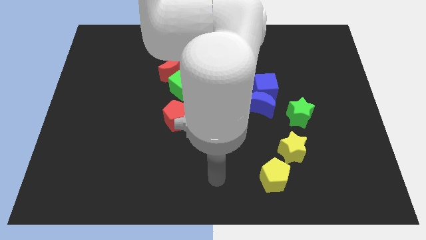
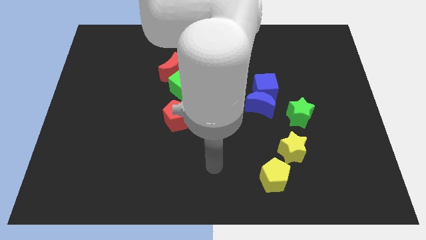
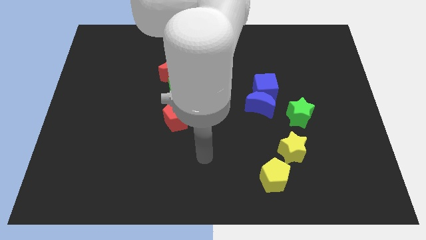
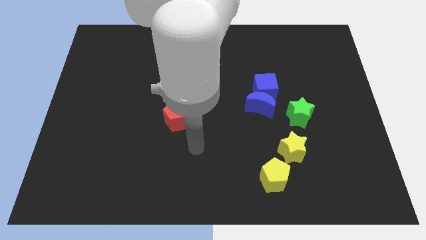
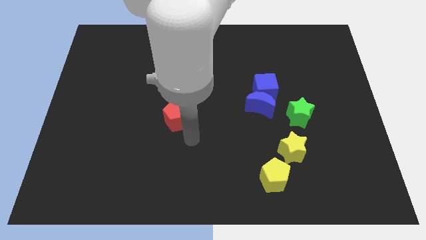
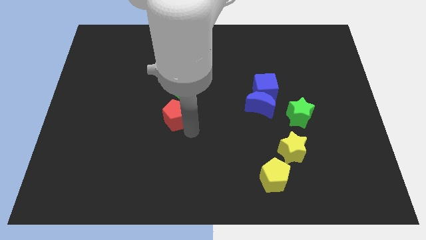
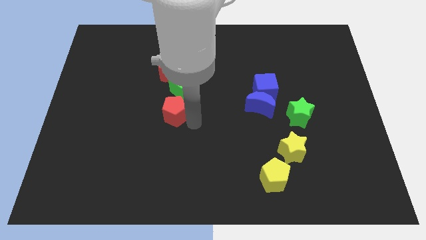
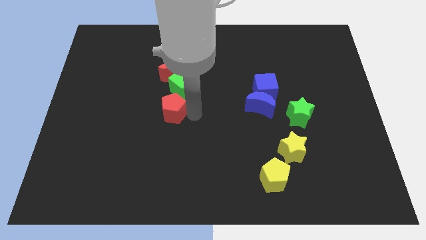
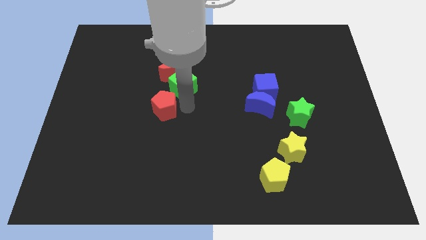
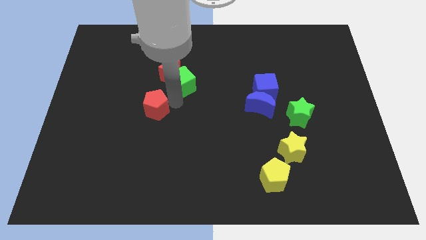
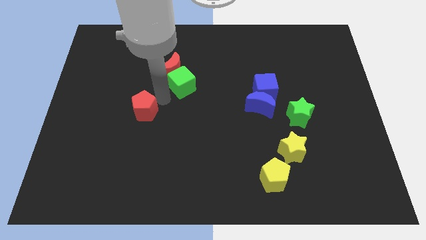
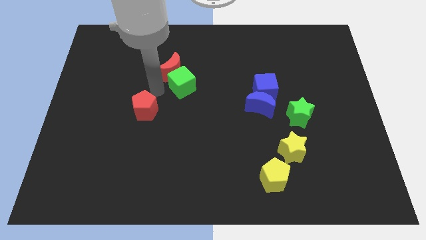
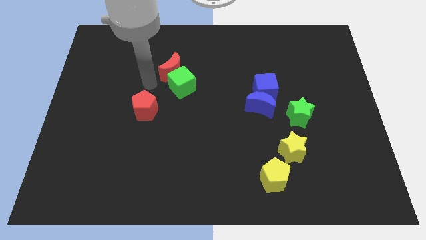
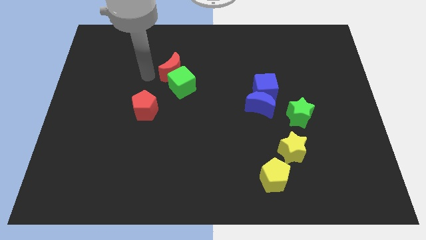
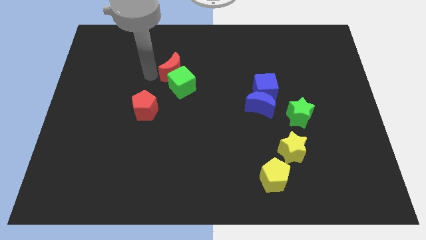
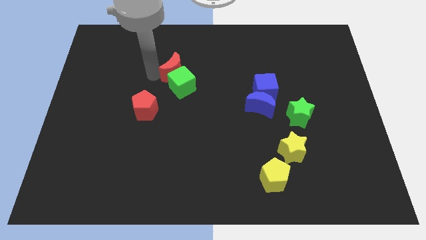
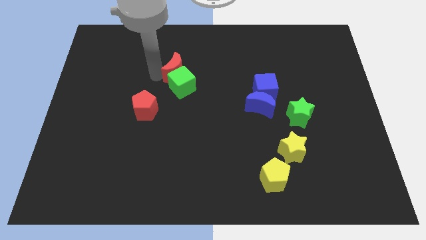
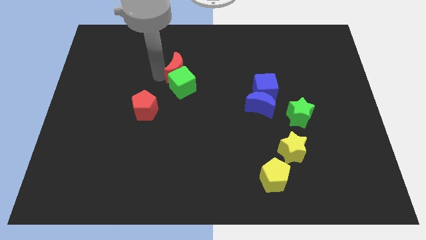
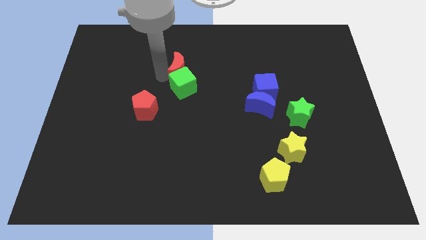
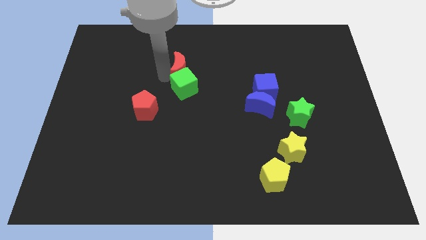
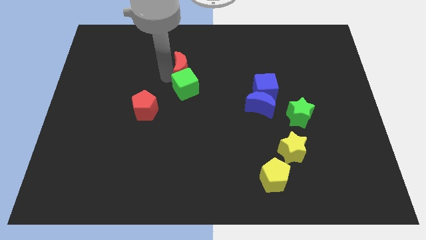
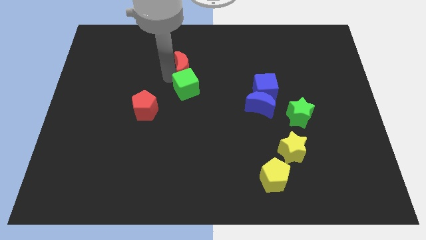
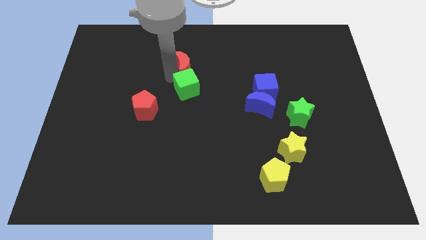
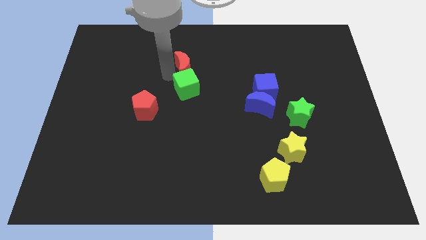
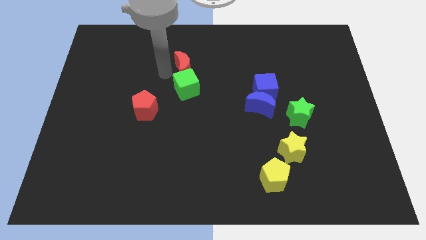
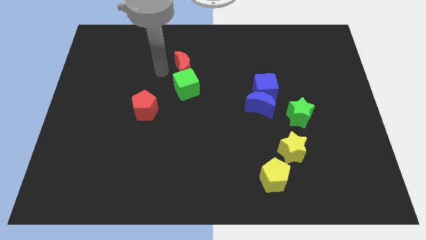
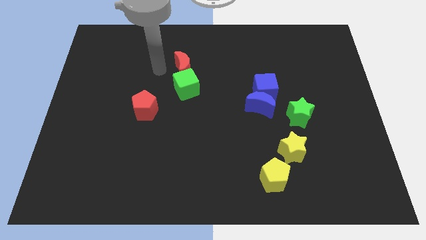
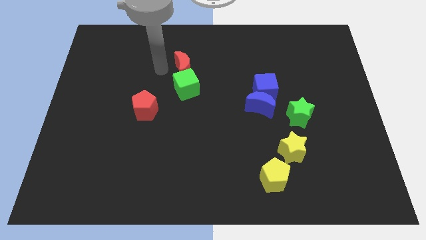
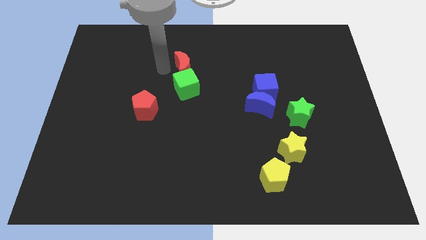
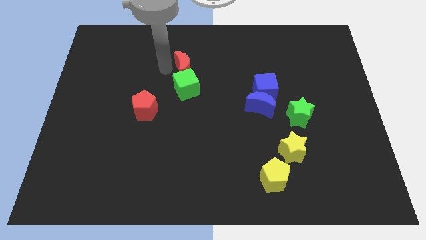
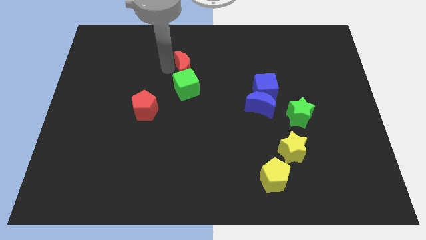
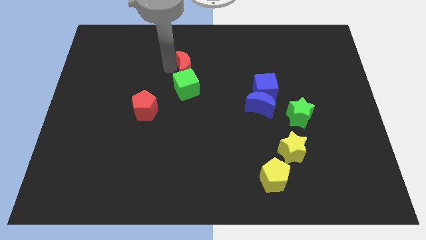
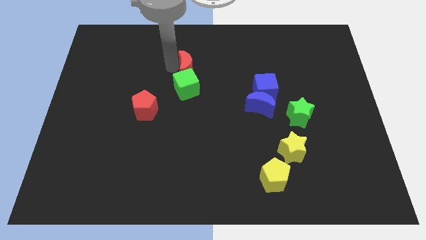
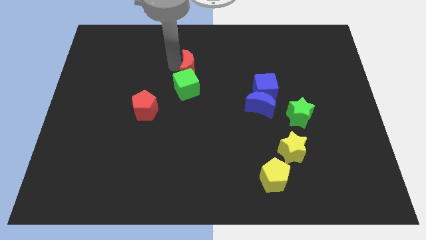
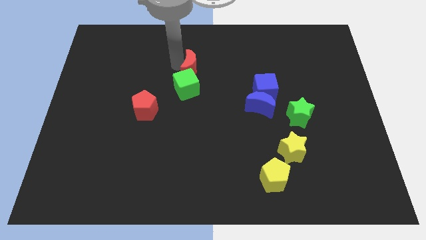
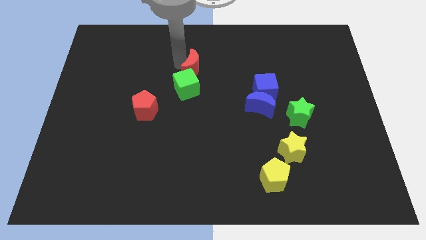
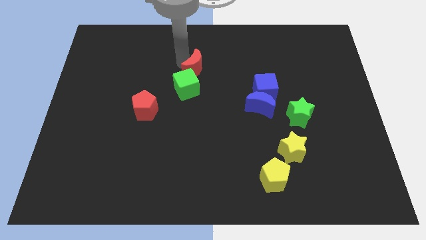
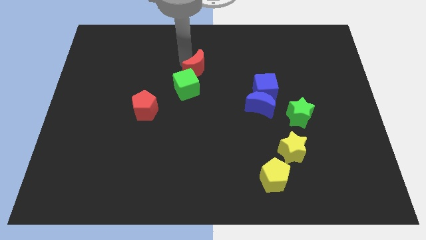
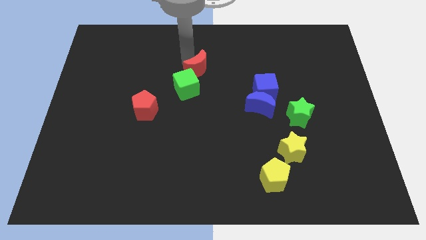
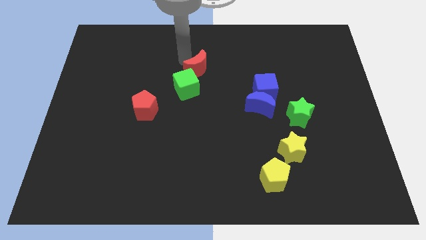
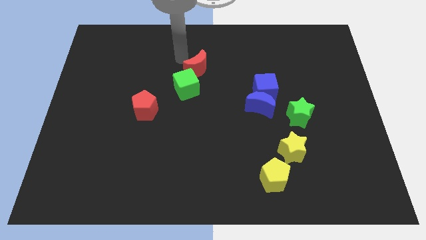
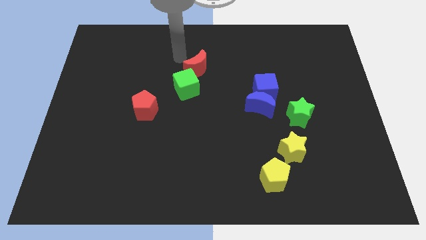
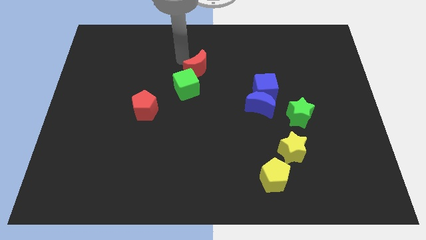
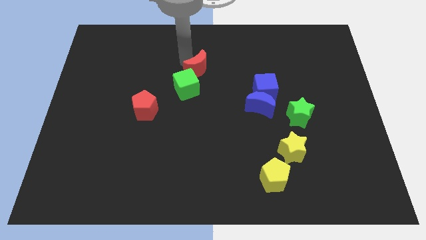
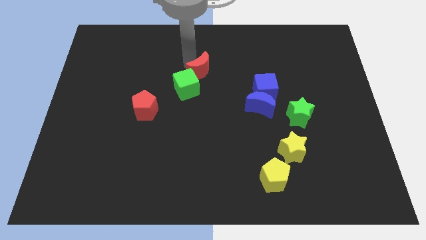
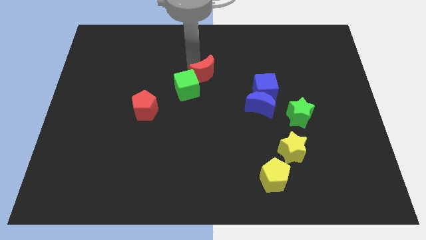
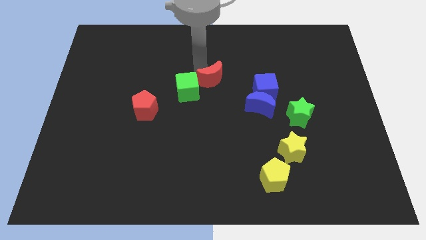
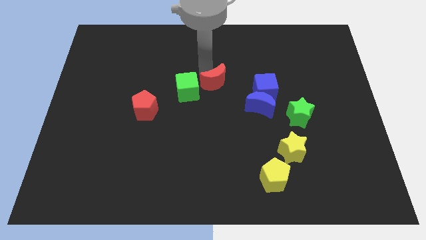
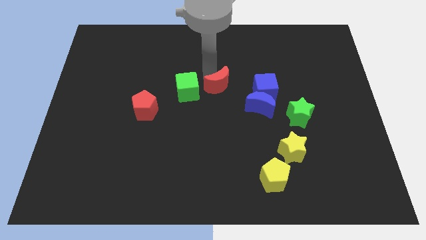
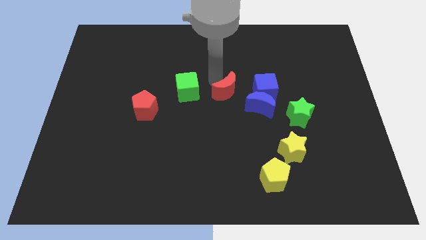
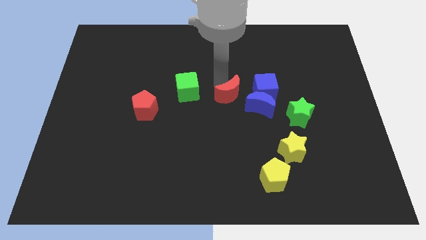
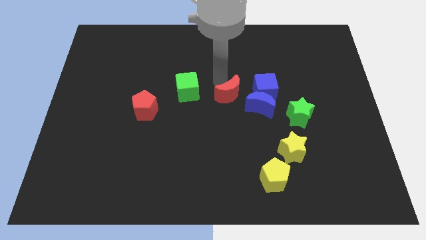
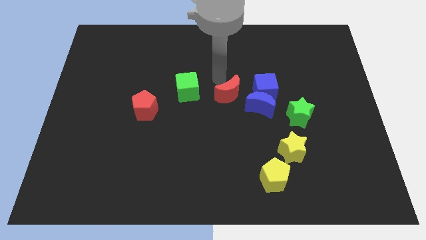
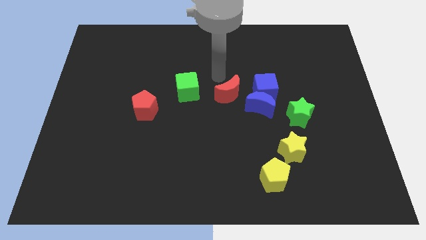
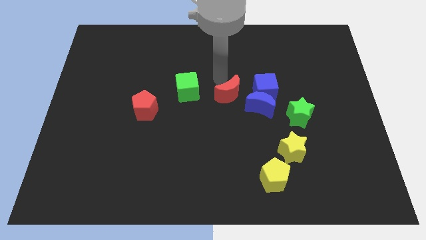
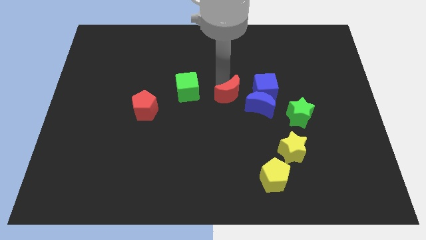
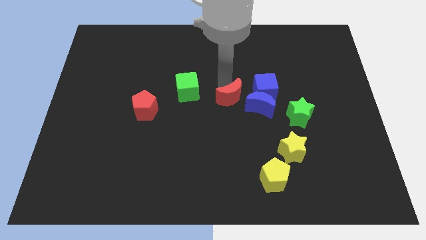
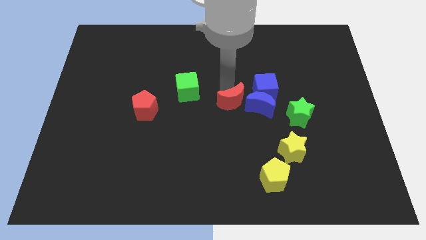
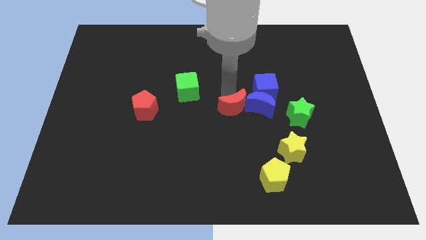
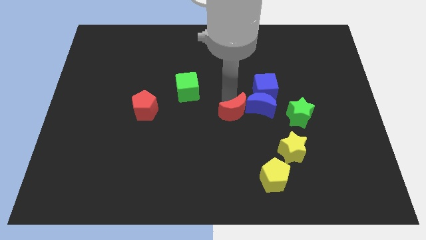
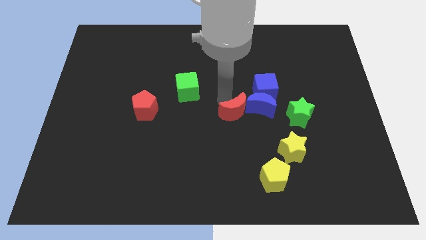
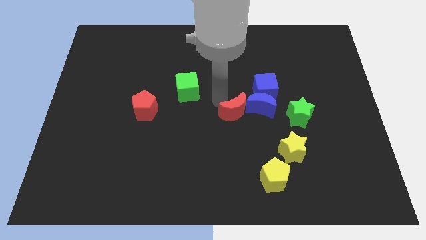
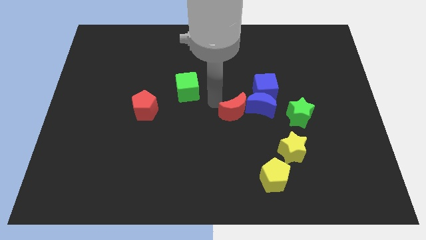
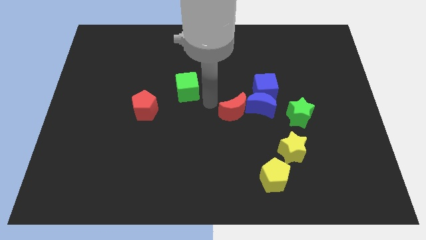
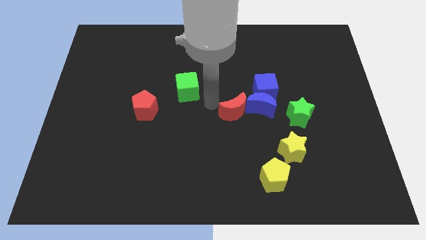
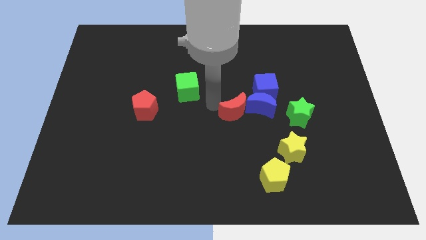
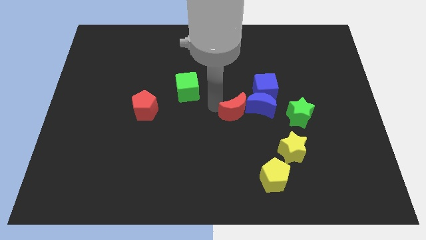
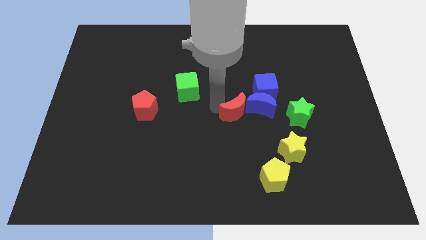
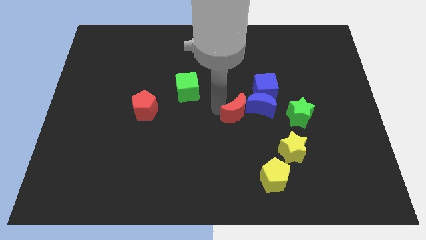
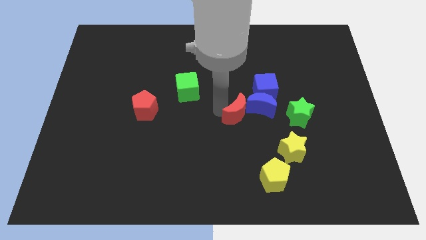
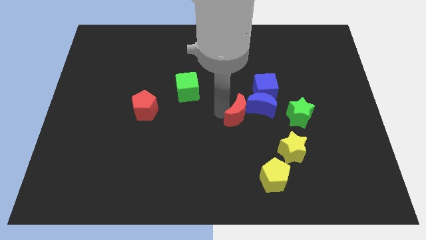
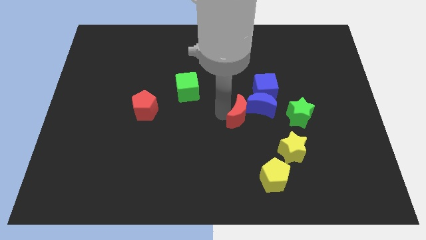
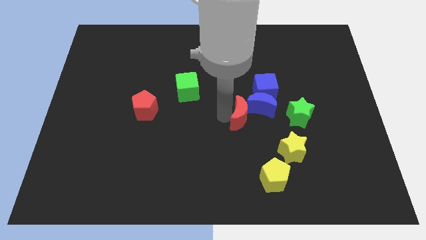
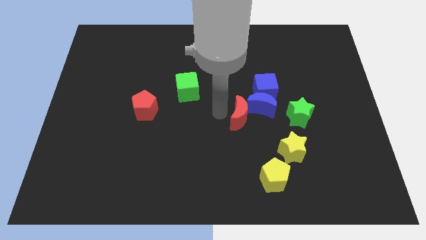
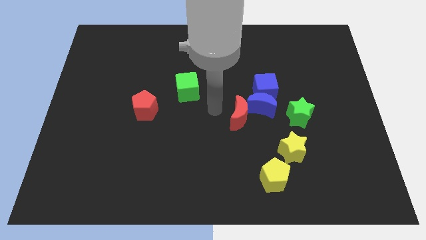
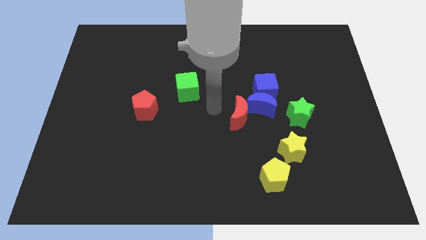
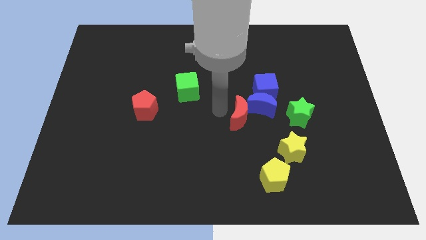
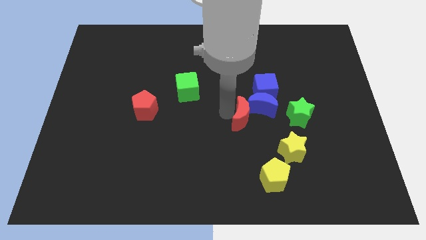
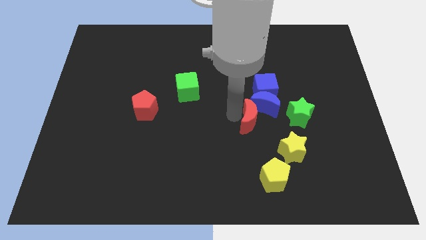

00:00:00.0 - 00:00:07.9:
put the red moon below the blue cube

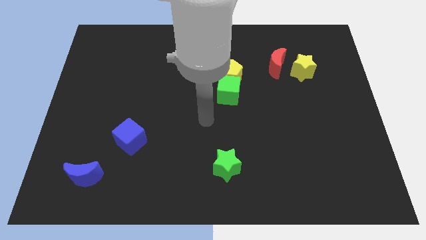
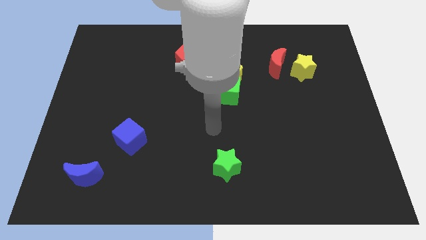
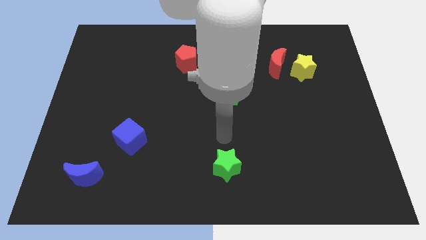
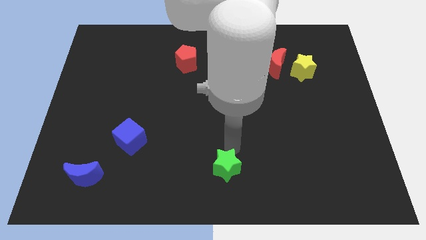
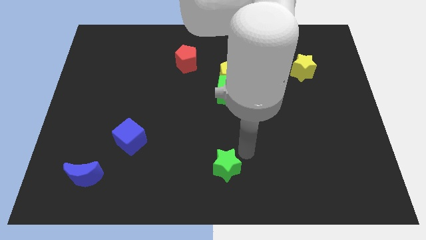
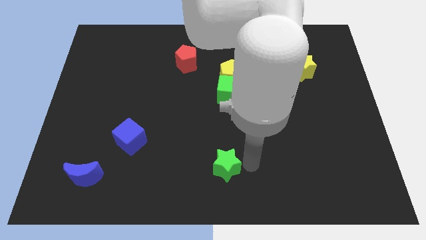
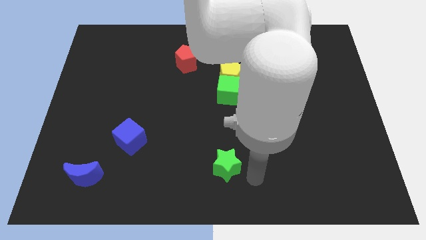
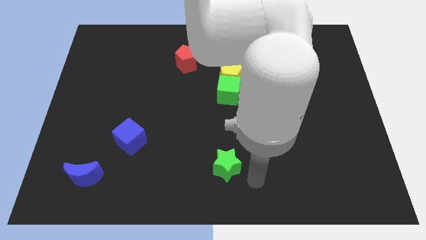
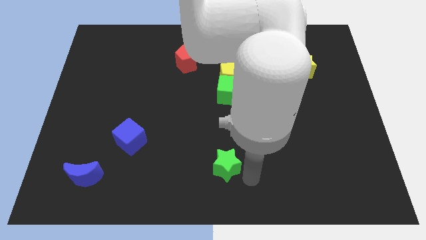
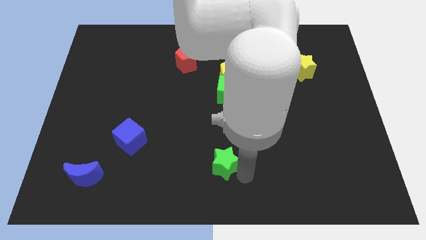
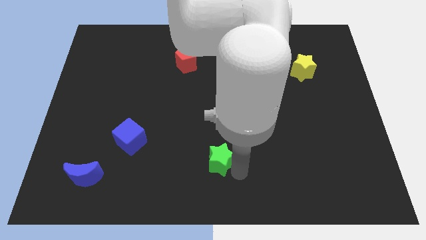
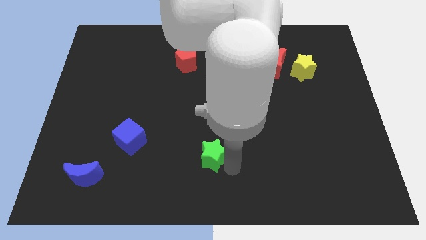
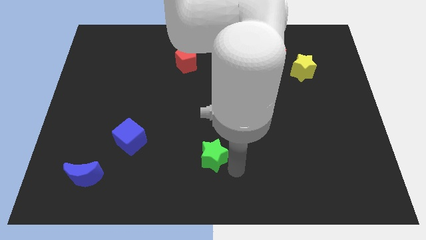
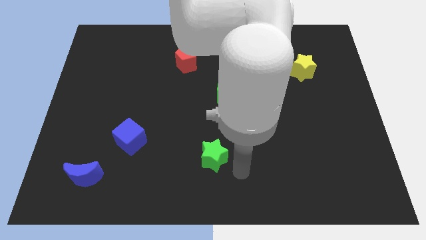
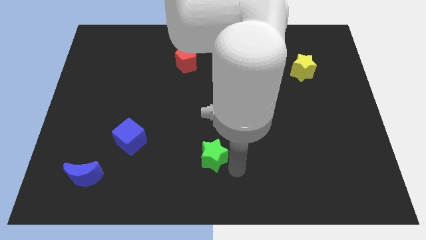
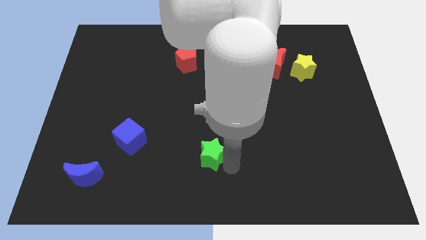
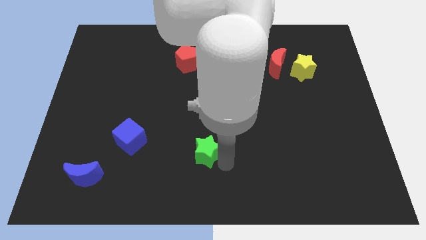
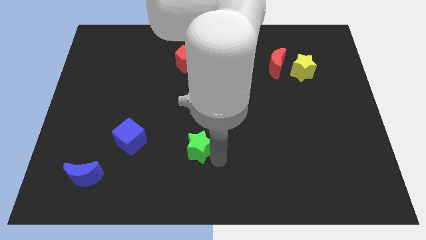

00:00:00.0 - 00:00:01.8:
put the green star right of the blue cube
